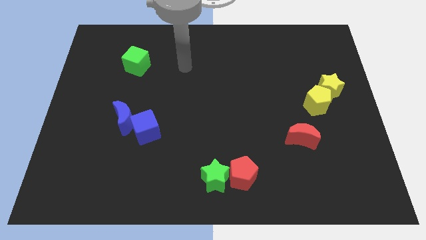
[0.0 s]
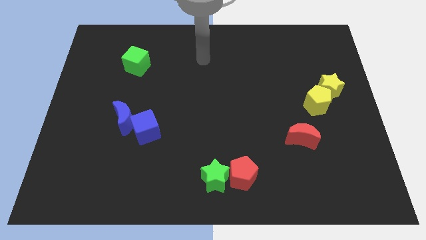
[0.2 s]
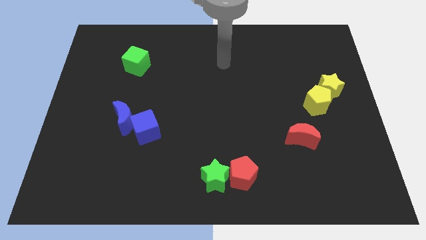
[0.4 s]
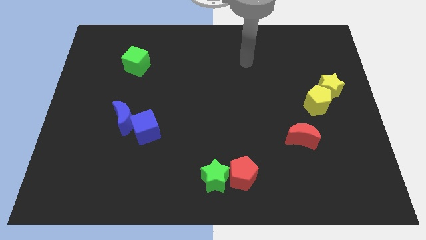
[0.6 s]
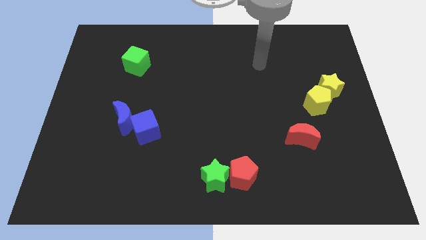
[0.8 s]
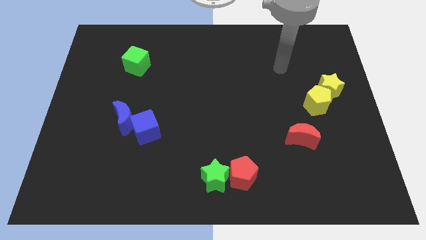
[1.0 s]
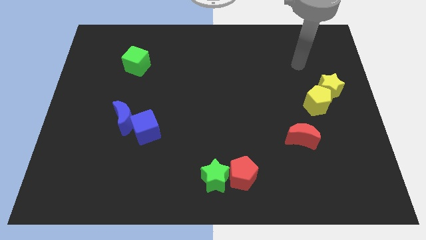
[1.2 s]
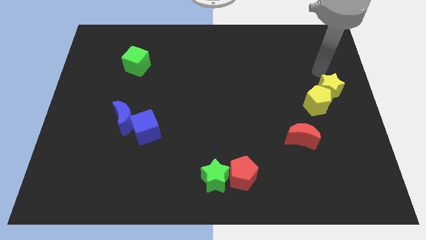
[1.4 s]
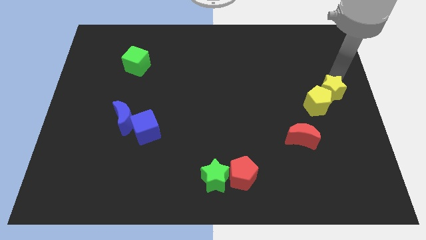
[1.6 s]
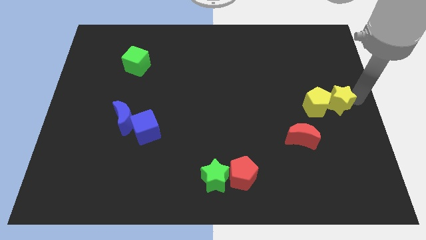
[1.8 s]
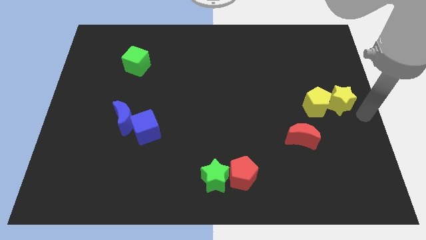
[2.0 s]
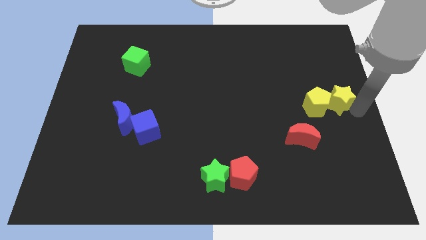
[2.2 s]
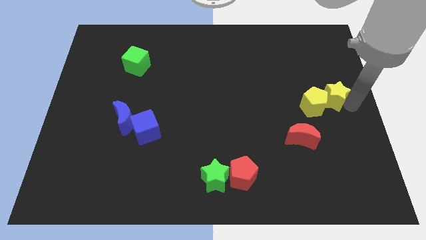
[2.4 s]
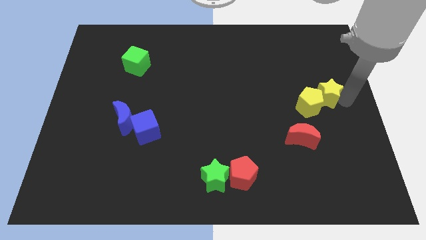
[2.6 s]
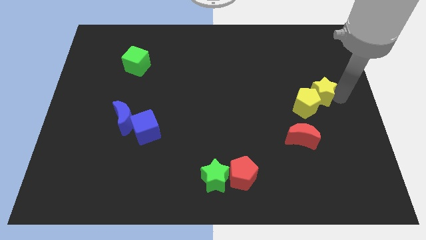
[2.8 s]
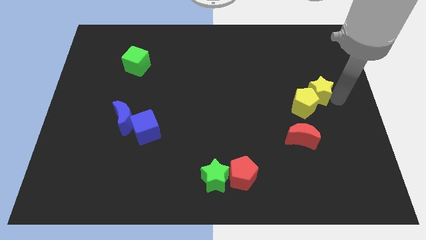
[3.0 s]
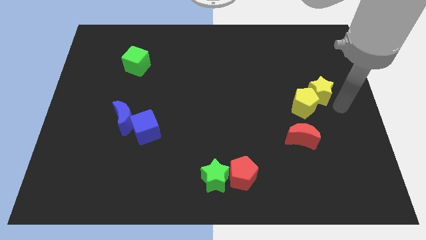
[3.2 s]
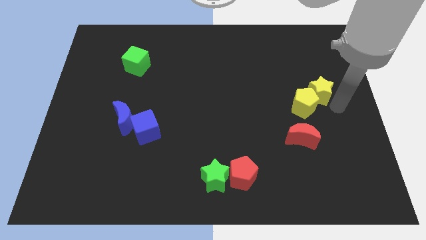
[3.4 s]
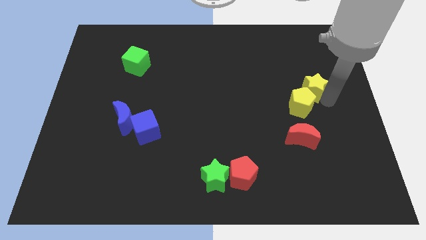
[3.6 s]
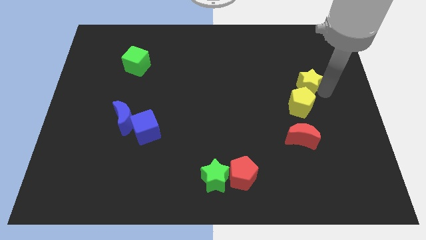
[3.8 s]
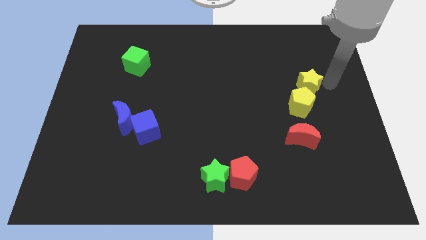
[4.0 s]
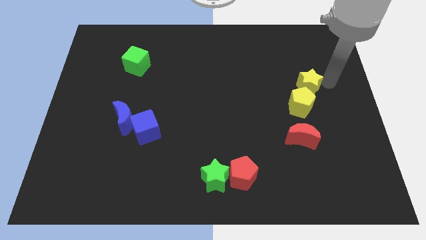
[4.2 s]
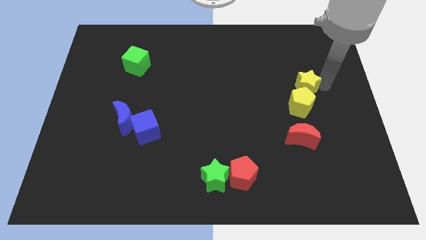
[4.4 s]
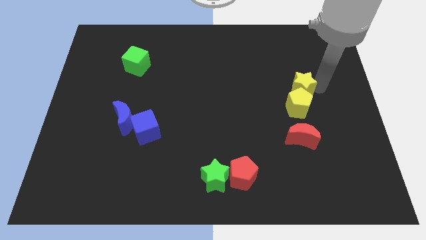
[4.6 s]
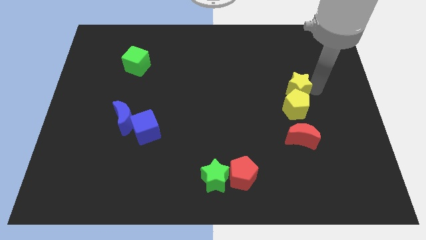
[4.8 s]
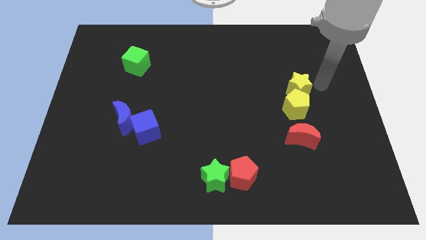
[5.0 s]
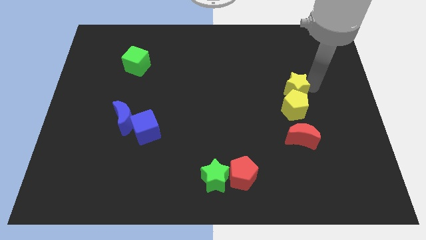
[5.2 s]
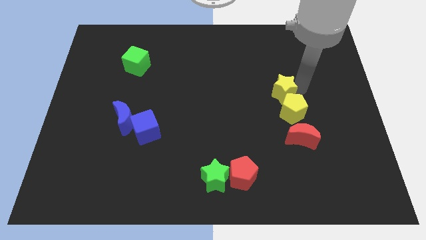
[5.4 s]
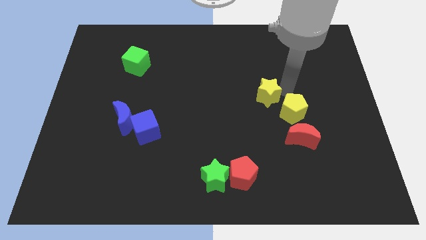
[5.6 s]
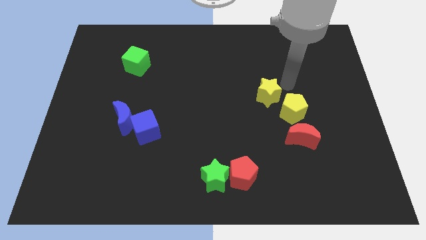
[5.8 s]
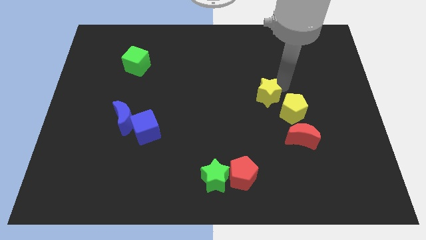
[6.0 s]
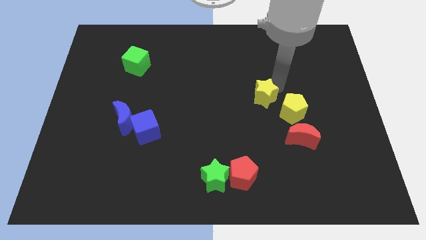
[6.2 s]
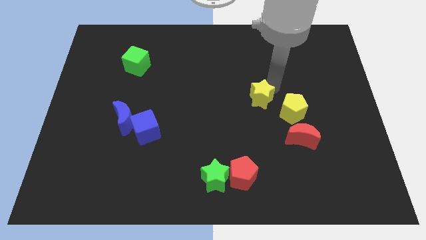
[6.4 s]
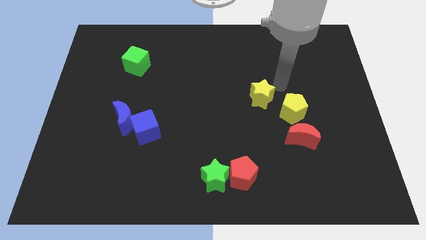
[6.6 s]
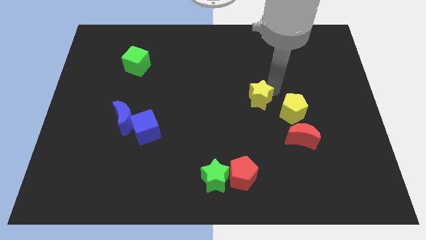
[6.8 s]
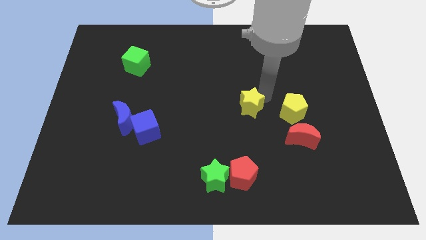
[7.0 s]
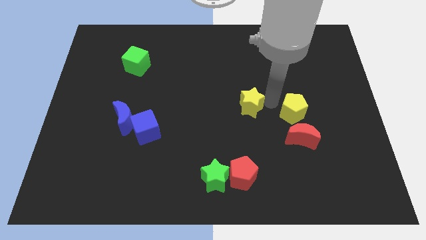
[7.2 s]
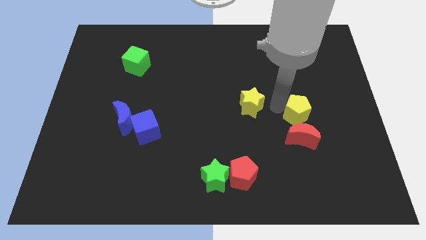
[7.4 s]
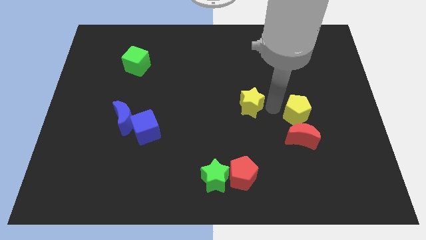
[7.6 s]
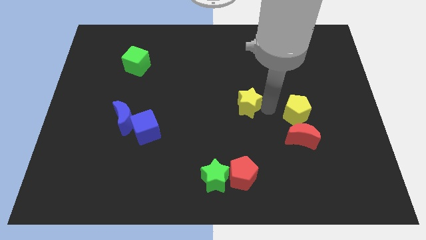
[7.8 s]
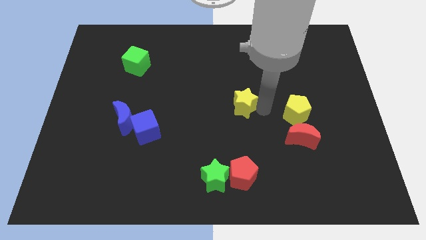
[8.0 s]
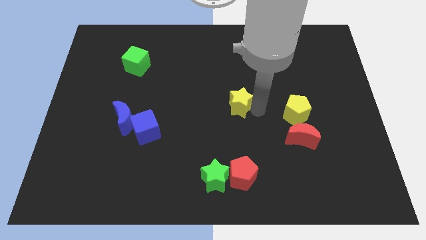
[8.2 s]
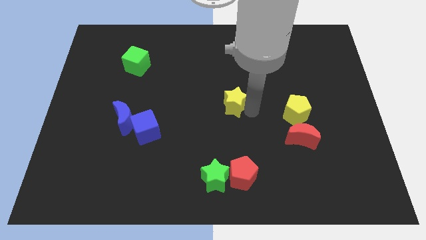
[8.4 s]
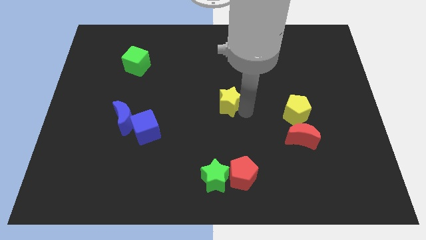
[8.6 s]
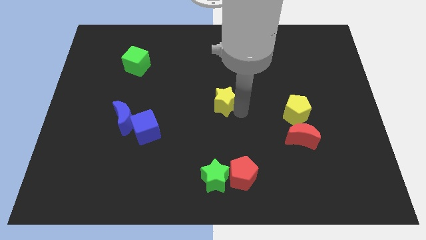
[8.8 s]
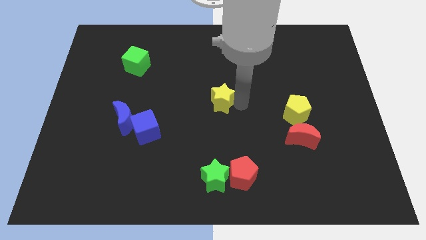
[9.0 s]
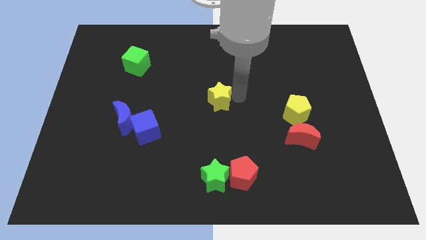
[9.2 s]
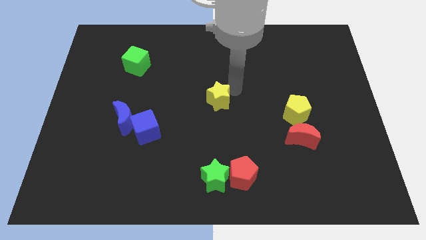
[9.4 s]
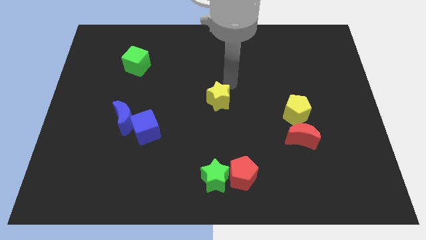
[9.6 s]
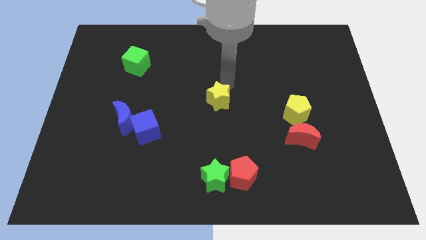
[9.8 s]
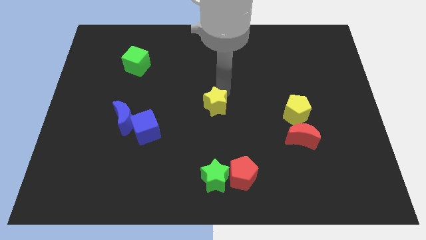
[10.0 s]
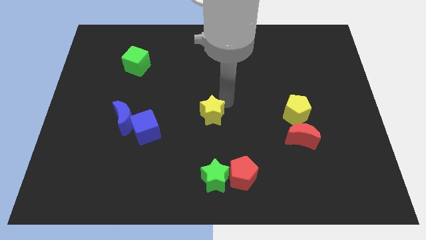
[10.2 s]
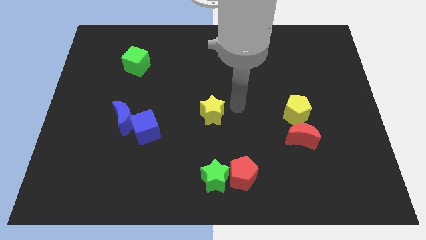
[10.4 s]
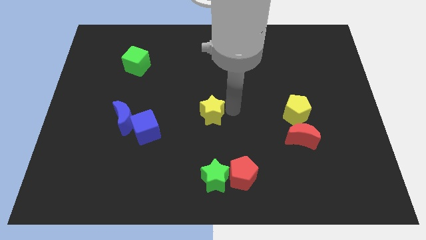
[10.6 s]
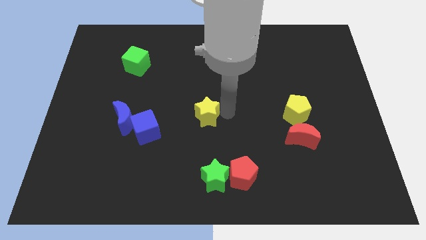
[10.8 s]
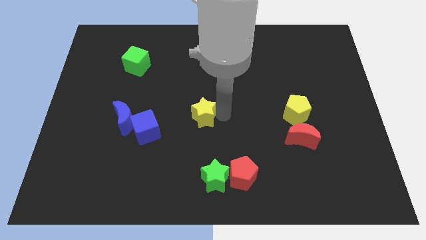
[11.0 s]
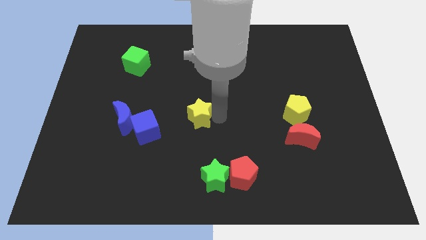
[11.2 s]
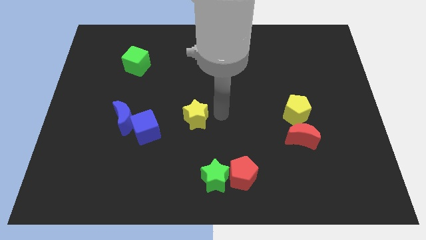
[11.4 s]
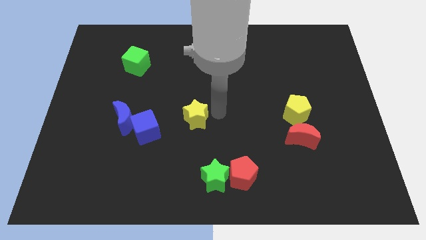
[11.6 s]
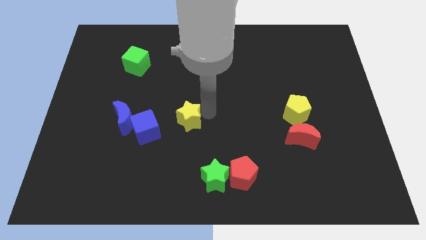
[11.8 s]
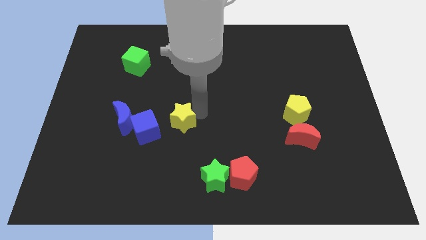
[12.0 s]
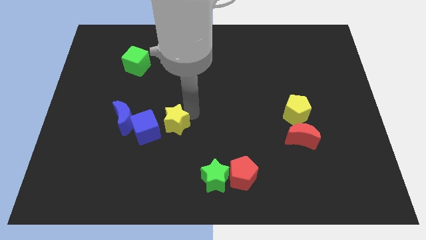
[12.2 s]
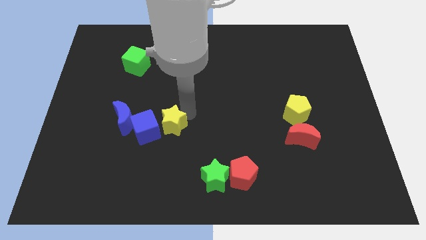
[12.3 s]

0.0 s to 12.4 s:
push the yellow star next to the blue cube
